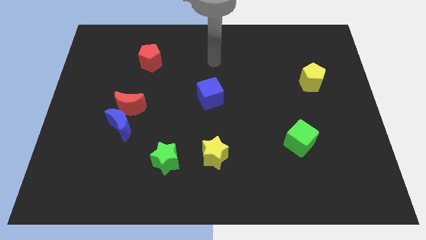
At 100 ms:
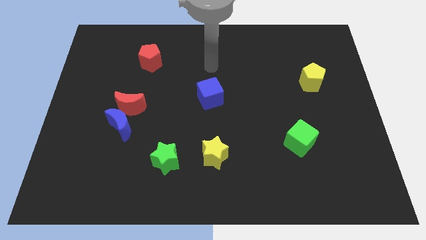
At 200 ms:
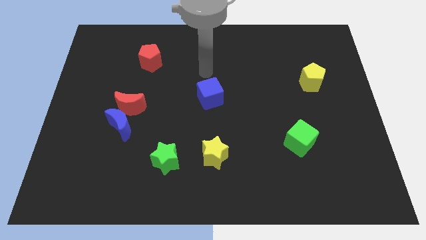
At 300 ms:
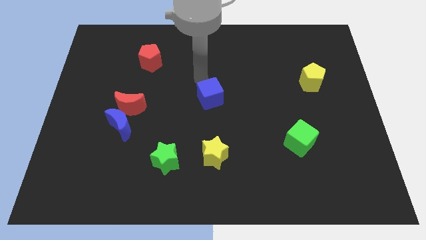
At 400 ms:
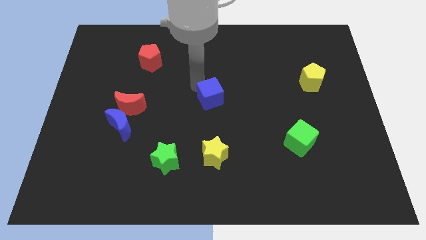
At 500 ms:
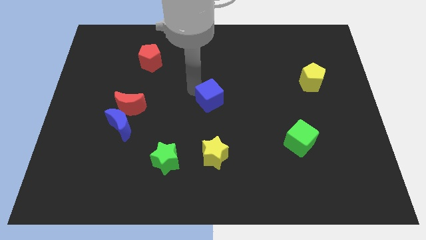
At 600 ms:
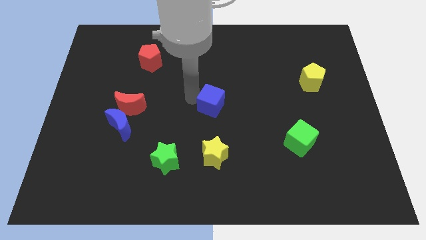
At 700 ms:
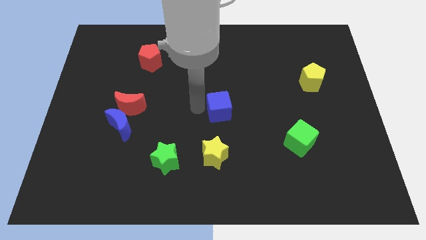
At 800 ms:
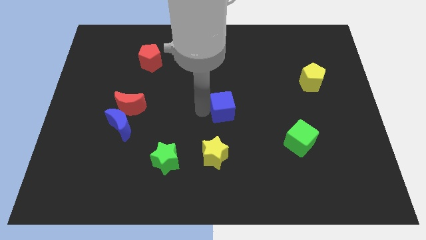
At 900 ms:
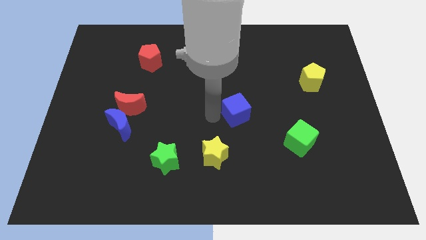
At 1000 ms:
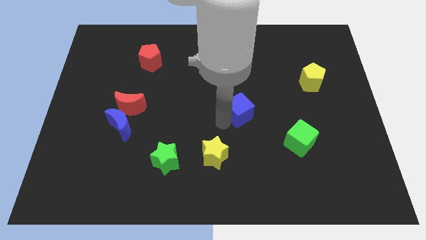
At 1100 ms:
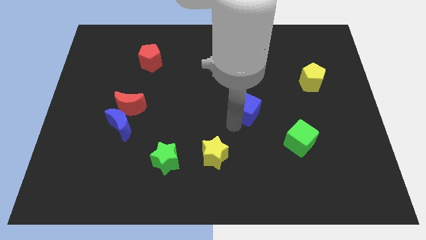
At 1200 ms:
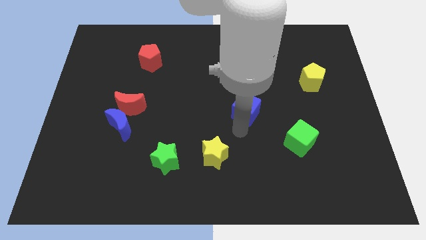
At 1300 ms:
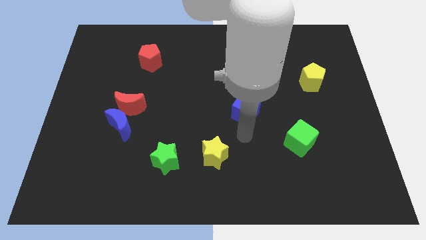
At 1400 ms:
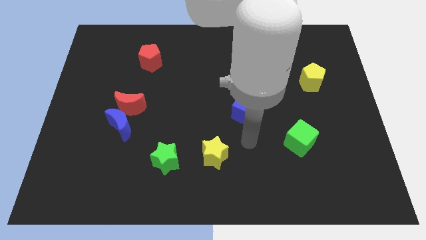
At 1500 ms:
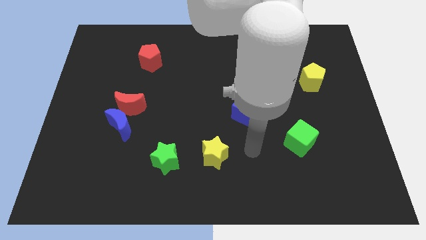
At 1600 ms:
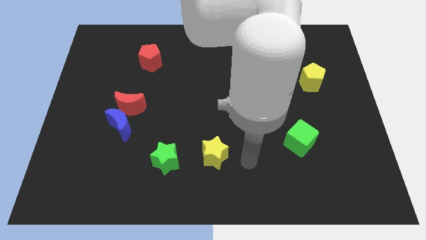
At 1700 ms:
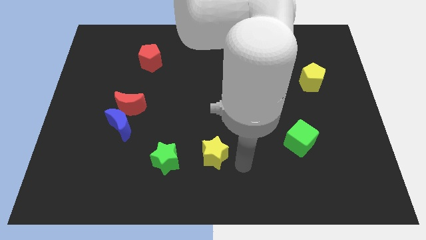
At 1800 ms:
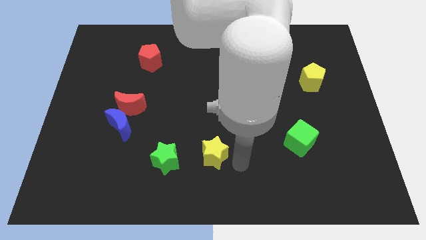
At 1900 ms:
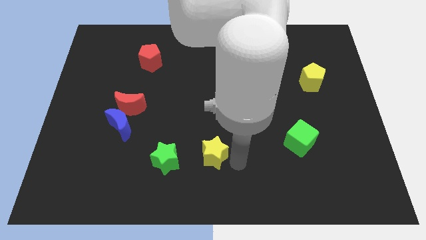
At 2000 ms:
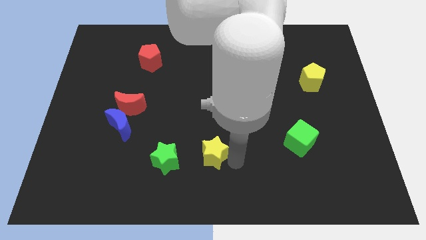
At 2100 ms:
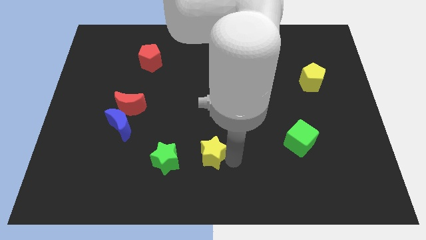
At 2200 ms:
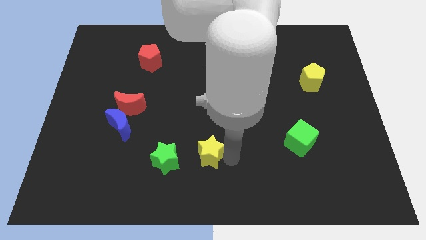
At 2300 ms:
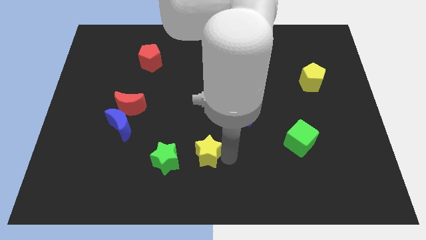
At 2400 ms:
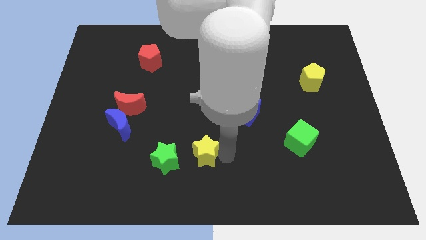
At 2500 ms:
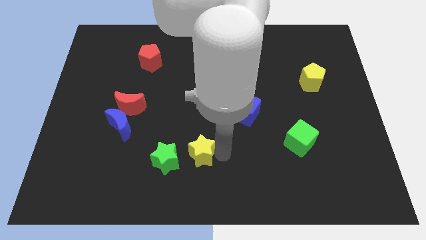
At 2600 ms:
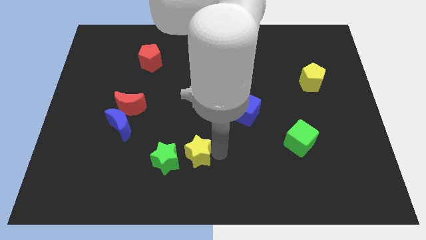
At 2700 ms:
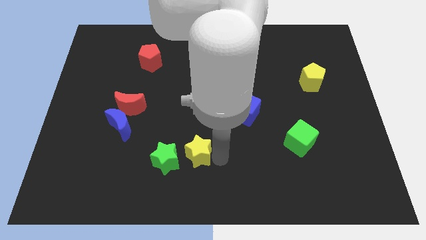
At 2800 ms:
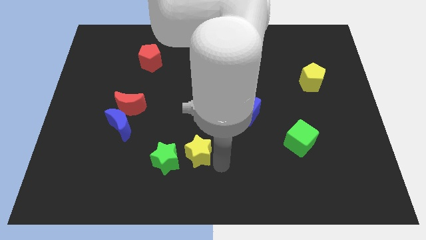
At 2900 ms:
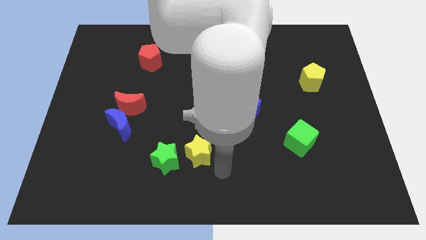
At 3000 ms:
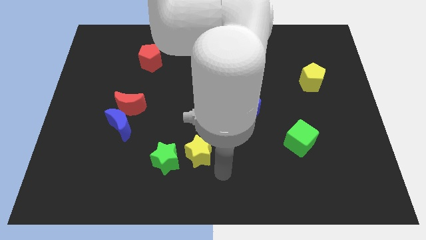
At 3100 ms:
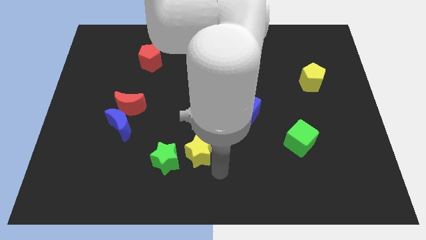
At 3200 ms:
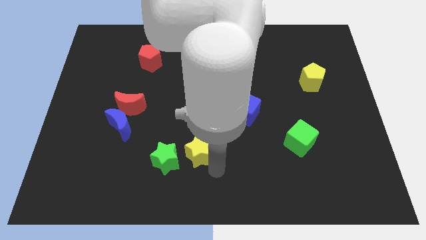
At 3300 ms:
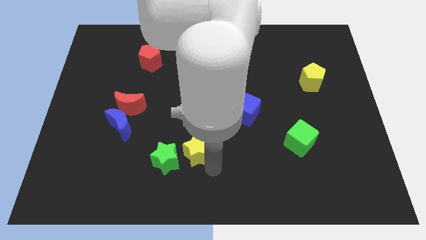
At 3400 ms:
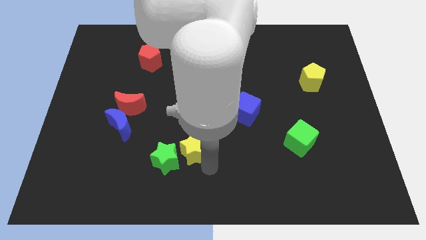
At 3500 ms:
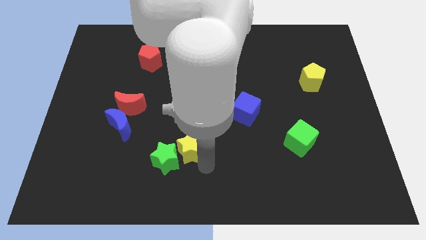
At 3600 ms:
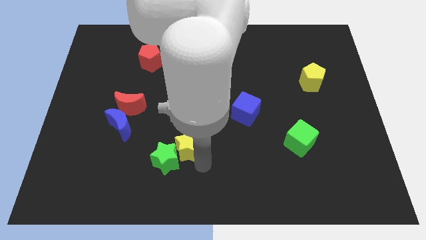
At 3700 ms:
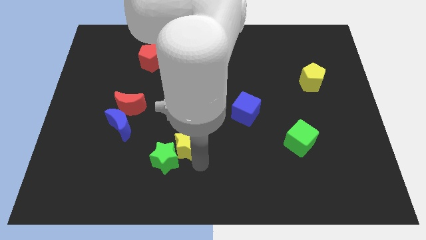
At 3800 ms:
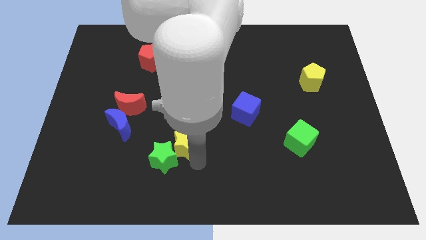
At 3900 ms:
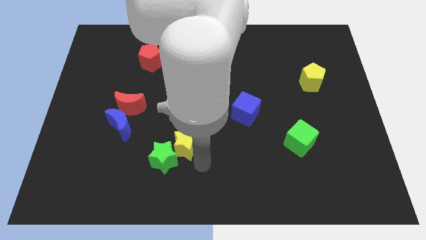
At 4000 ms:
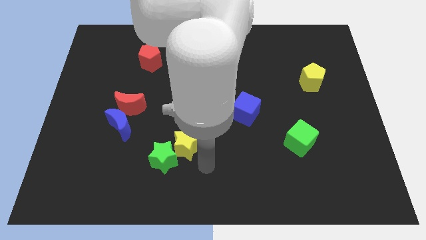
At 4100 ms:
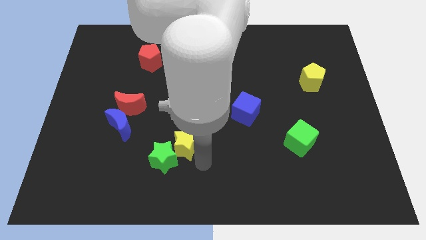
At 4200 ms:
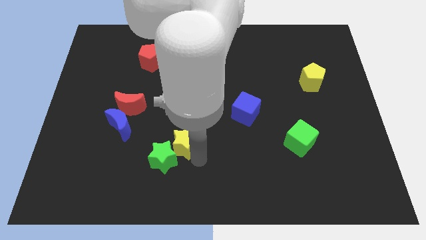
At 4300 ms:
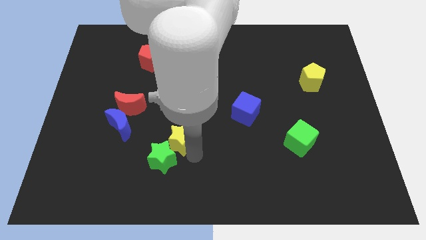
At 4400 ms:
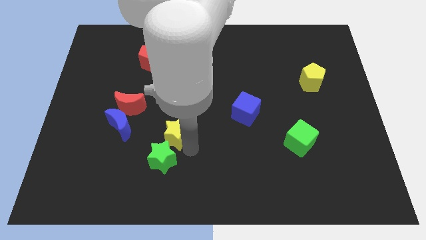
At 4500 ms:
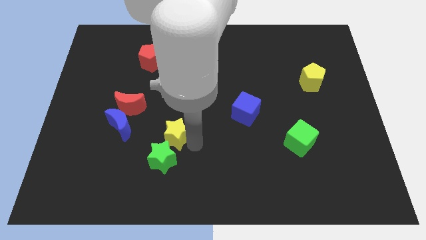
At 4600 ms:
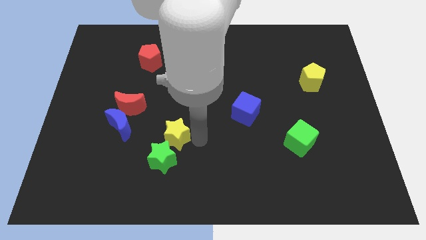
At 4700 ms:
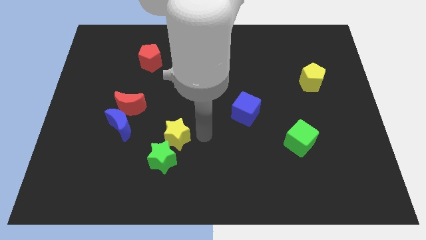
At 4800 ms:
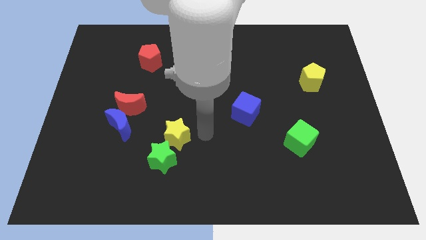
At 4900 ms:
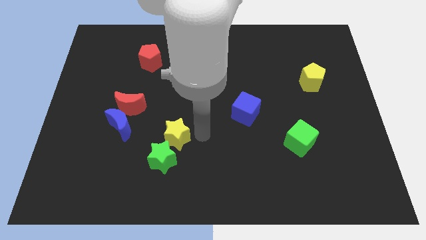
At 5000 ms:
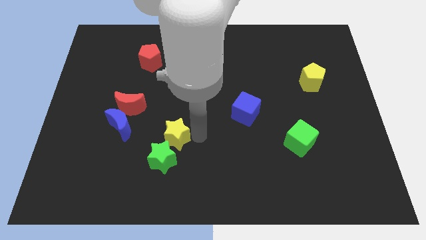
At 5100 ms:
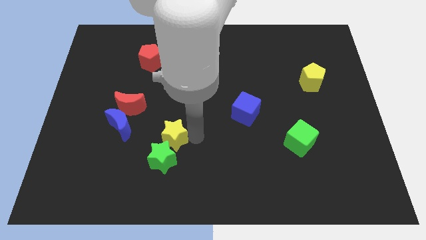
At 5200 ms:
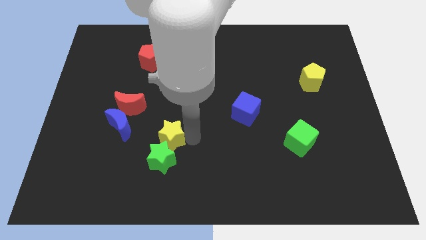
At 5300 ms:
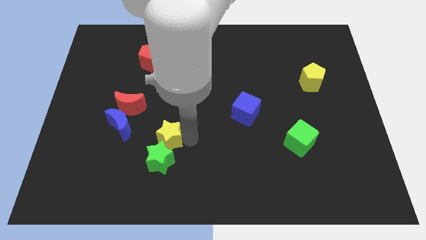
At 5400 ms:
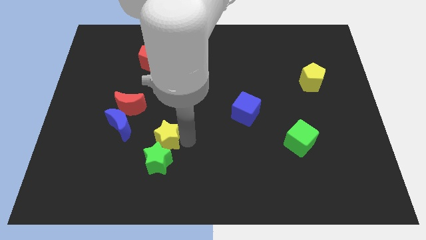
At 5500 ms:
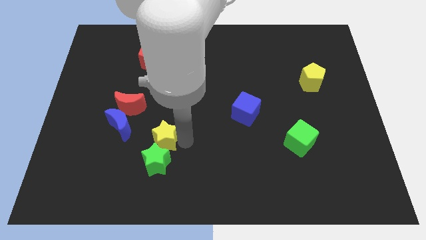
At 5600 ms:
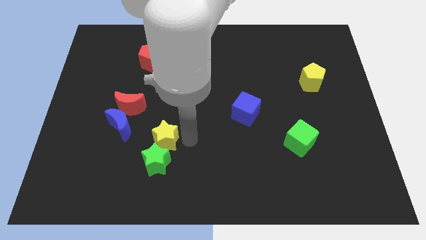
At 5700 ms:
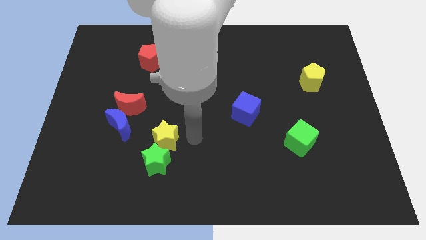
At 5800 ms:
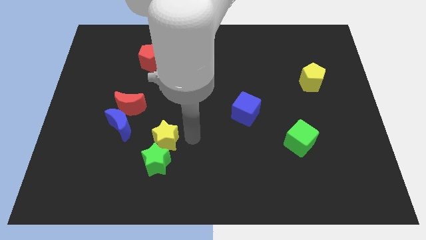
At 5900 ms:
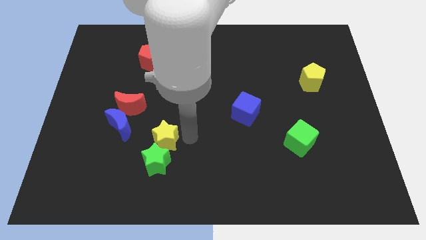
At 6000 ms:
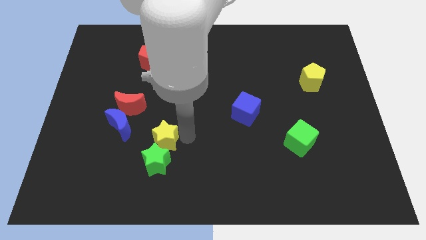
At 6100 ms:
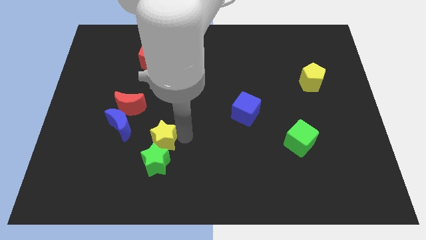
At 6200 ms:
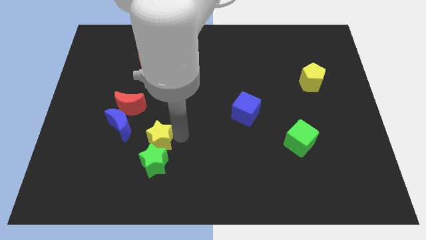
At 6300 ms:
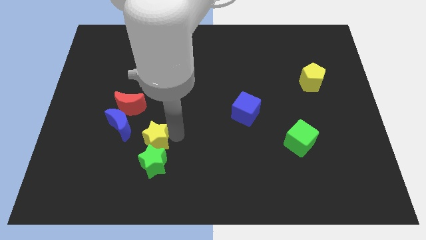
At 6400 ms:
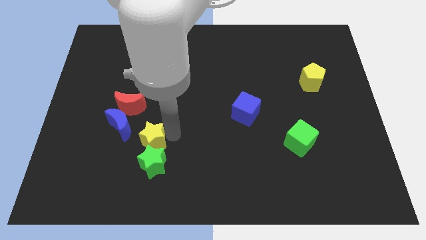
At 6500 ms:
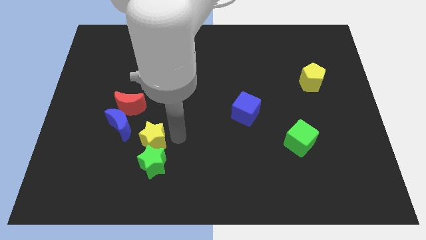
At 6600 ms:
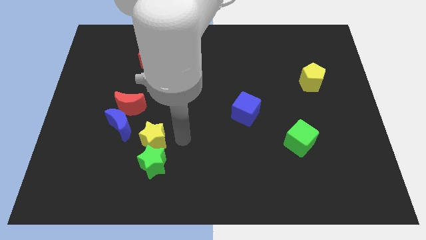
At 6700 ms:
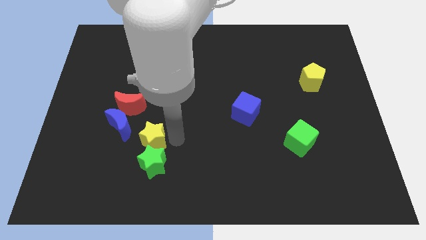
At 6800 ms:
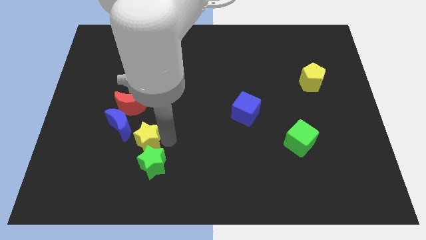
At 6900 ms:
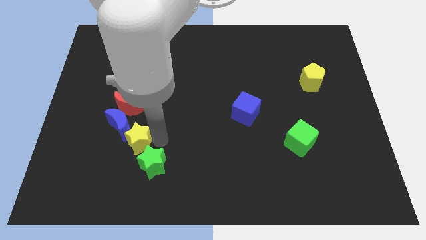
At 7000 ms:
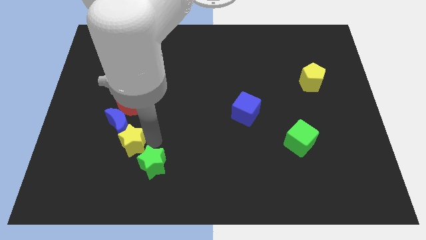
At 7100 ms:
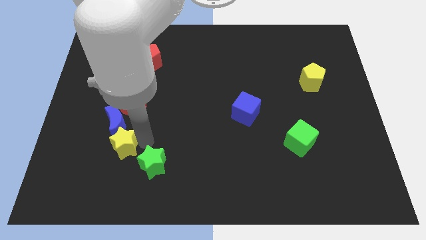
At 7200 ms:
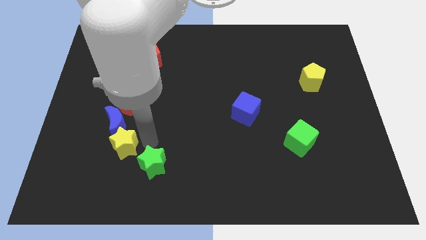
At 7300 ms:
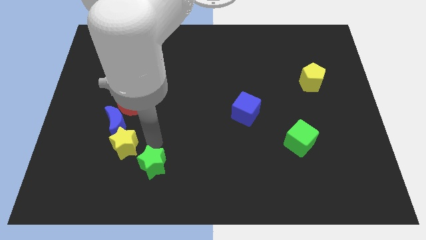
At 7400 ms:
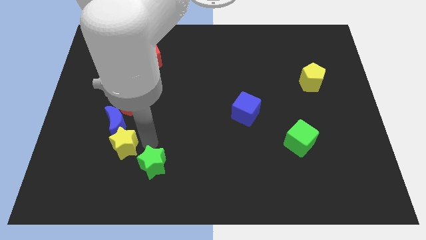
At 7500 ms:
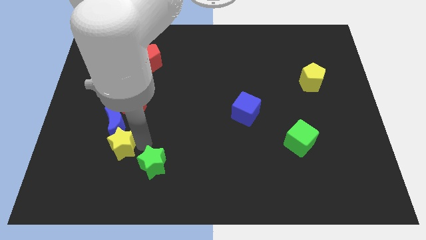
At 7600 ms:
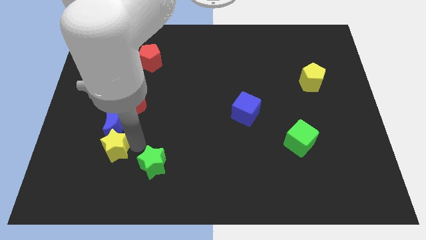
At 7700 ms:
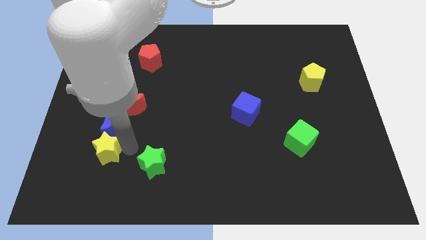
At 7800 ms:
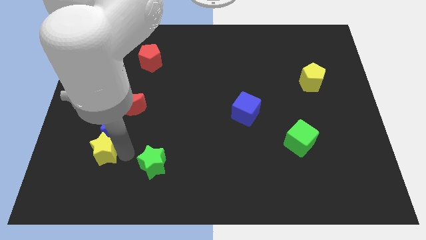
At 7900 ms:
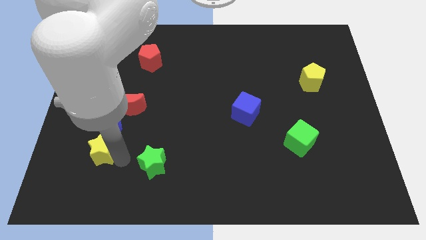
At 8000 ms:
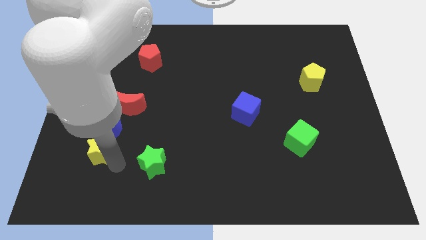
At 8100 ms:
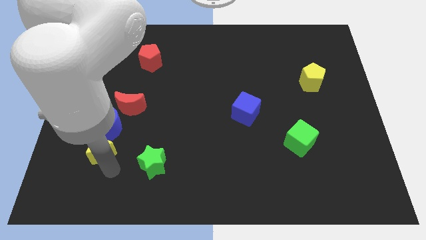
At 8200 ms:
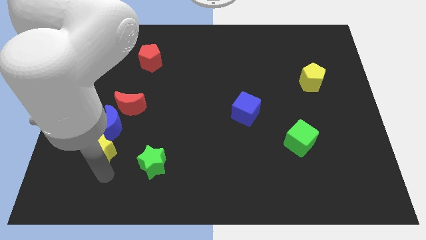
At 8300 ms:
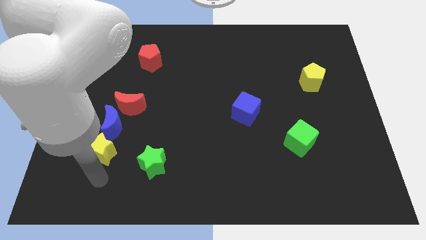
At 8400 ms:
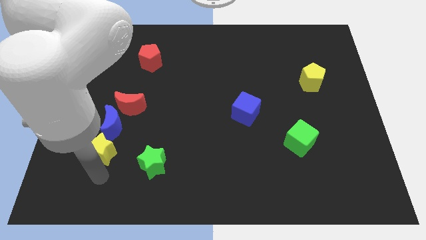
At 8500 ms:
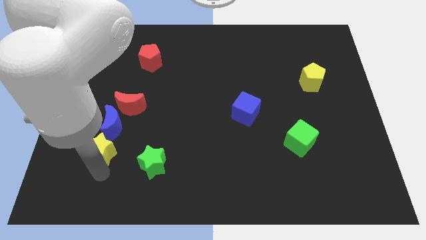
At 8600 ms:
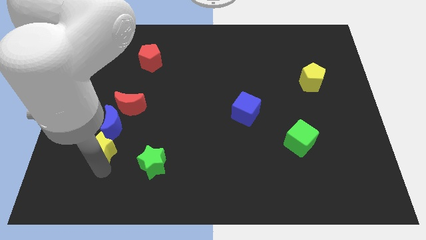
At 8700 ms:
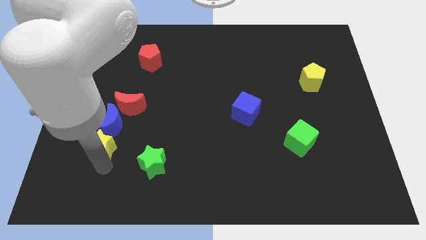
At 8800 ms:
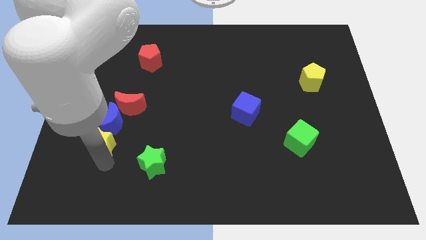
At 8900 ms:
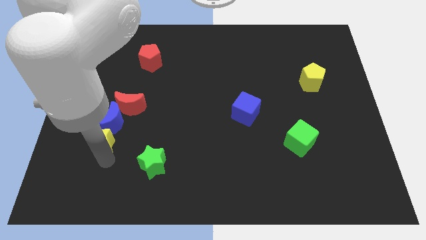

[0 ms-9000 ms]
move the yellow star diagonally down and to the left of the red moon
